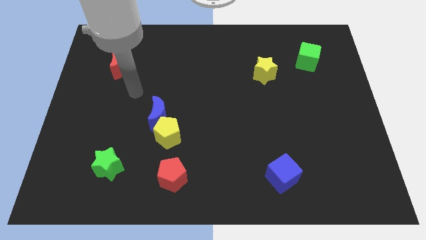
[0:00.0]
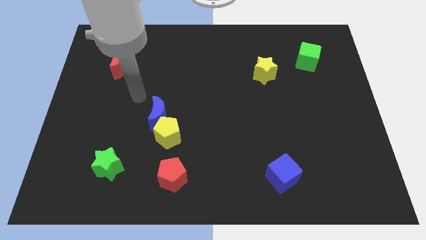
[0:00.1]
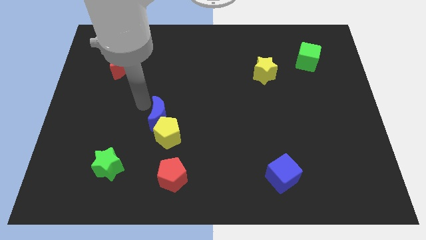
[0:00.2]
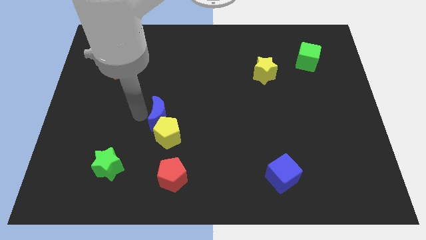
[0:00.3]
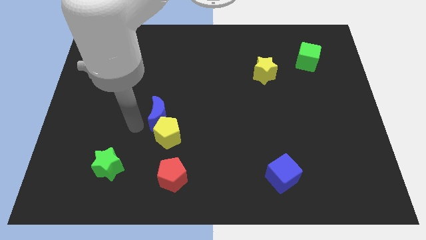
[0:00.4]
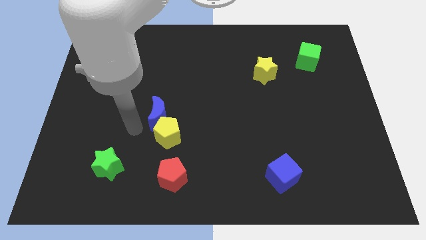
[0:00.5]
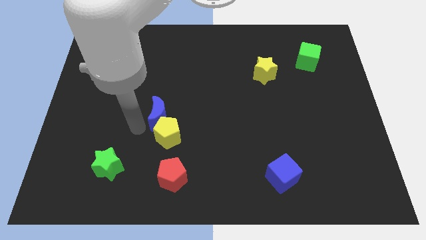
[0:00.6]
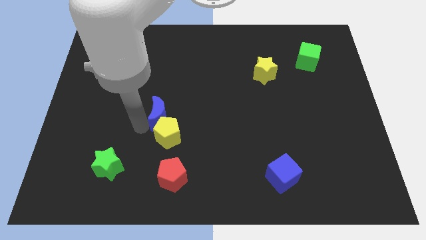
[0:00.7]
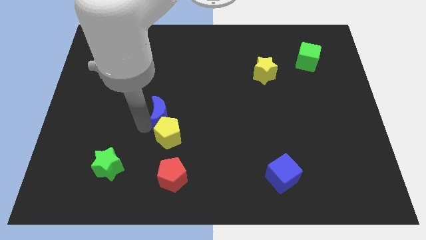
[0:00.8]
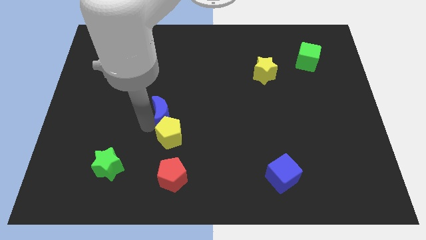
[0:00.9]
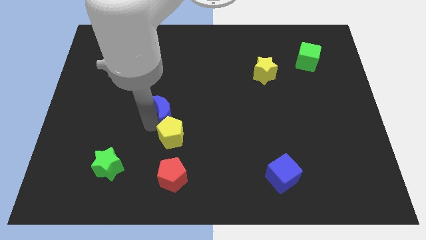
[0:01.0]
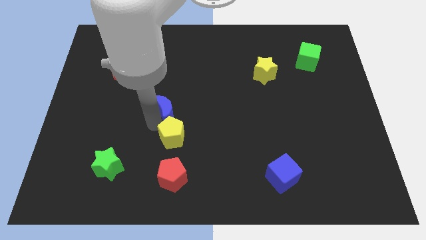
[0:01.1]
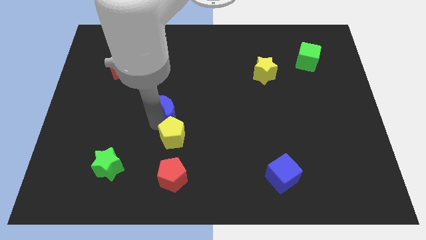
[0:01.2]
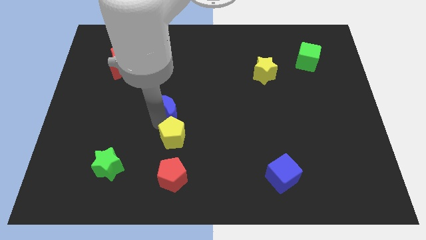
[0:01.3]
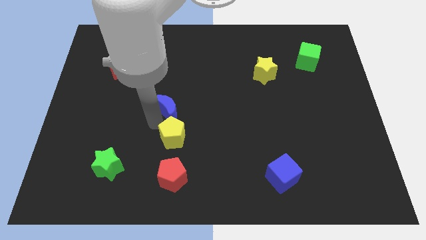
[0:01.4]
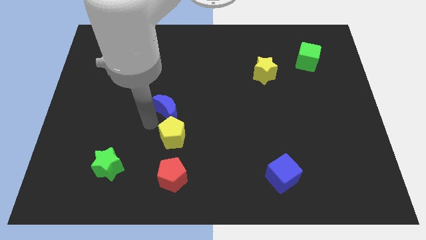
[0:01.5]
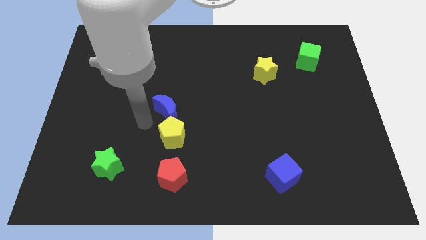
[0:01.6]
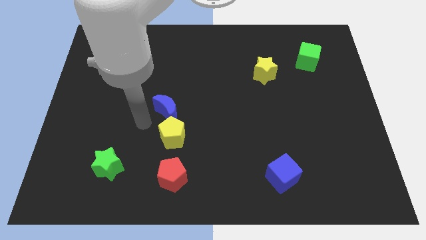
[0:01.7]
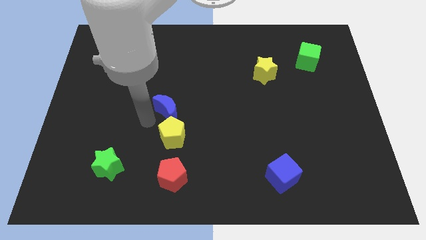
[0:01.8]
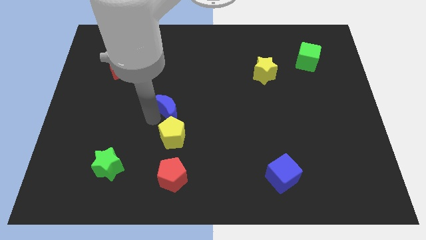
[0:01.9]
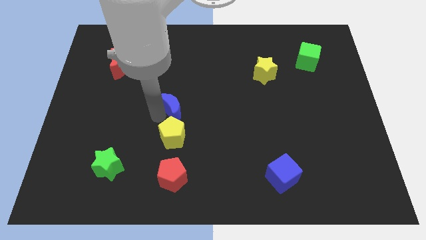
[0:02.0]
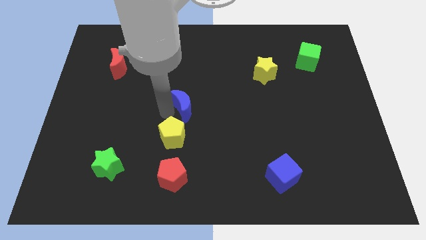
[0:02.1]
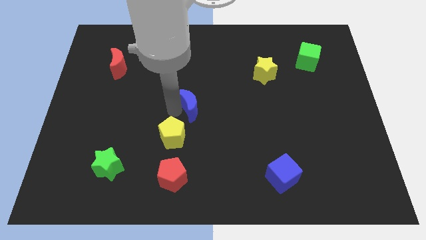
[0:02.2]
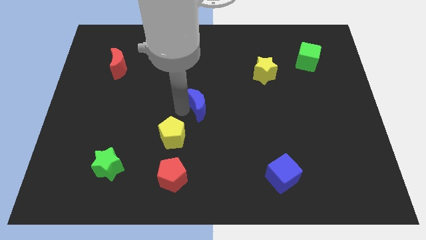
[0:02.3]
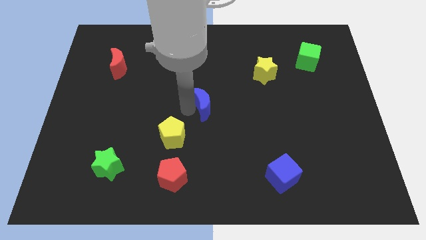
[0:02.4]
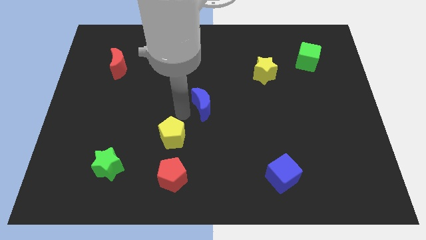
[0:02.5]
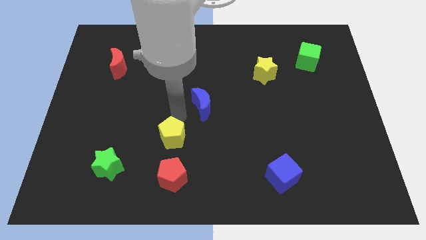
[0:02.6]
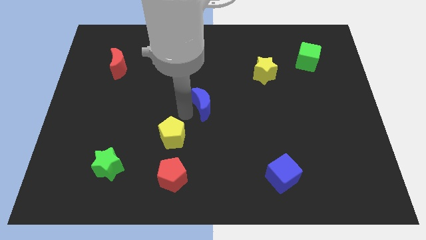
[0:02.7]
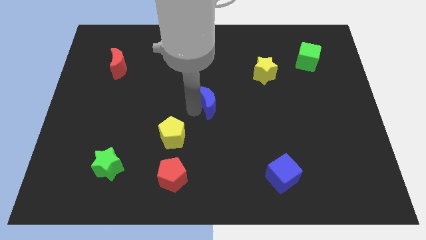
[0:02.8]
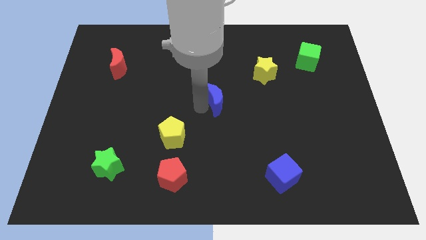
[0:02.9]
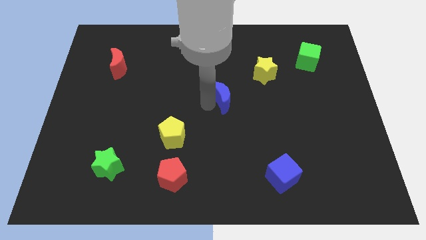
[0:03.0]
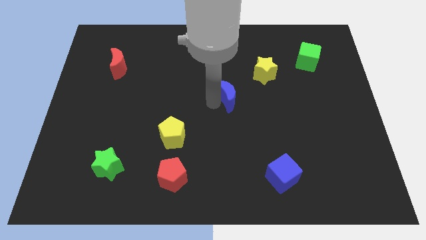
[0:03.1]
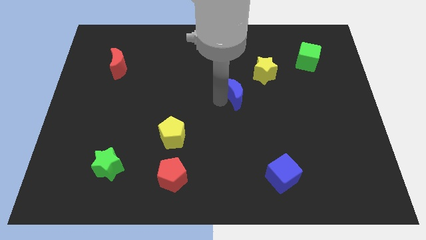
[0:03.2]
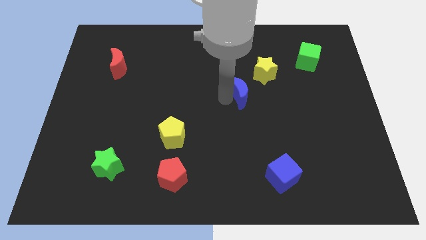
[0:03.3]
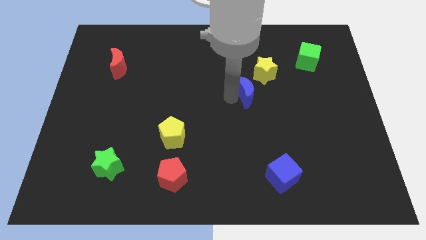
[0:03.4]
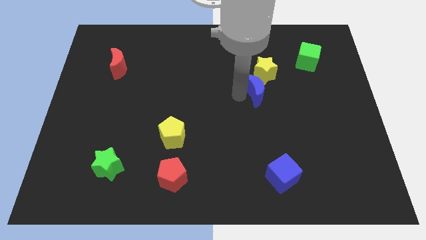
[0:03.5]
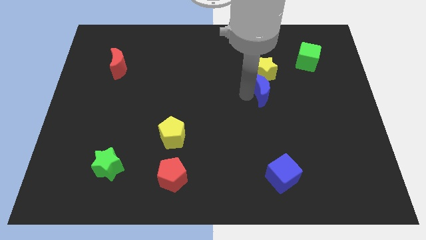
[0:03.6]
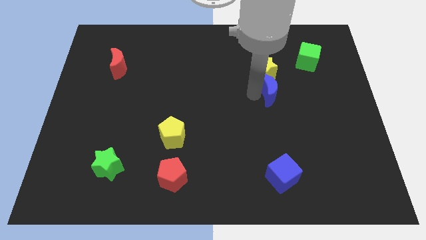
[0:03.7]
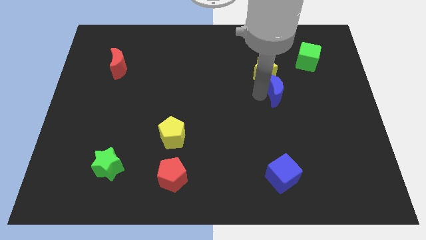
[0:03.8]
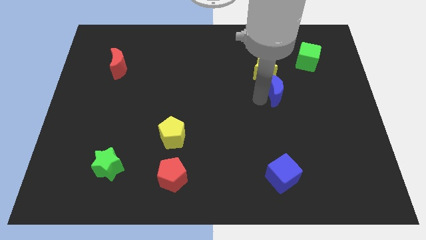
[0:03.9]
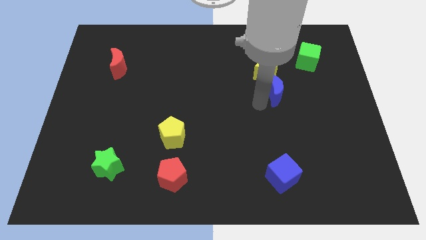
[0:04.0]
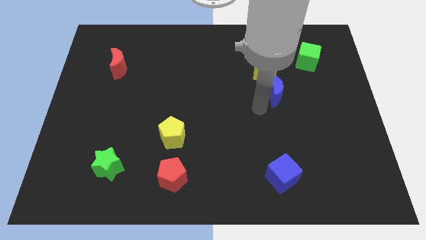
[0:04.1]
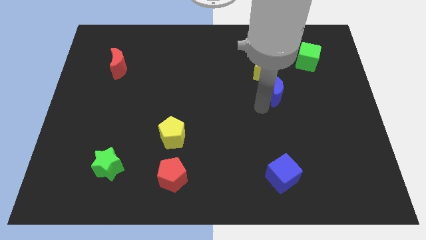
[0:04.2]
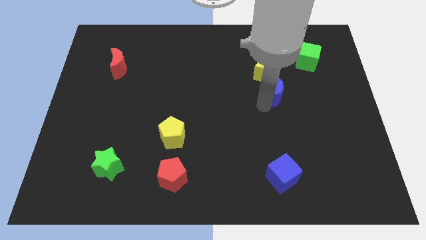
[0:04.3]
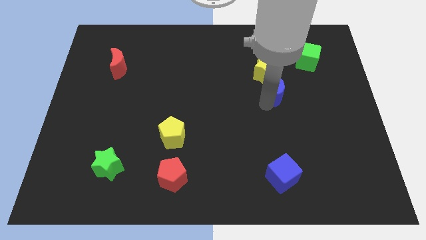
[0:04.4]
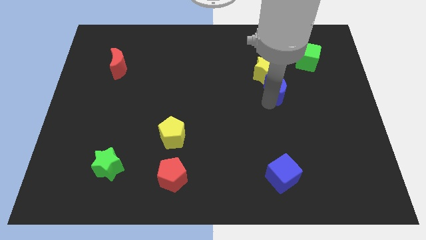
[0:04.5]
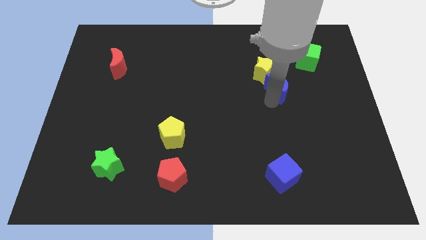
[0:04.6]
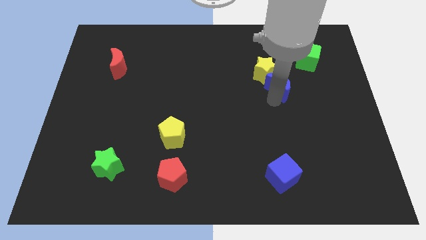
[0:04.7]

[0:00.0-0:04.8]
move the blue moon diagonally down and to the left of the green cube

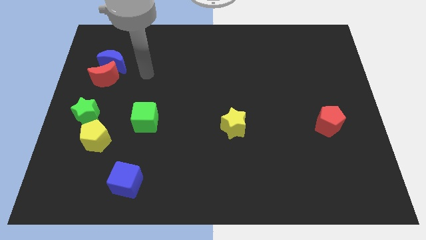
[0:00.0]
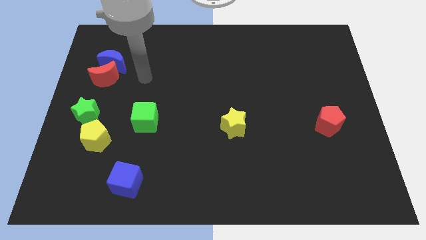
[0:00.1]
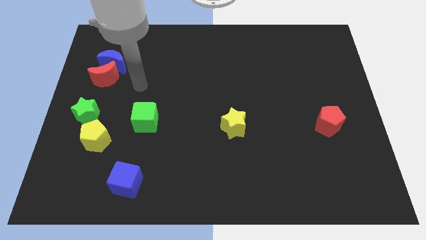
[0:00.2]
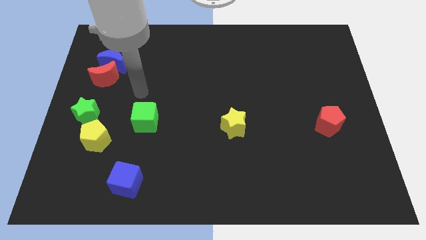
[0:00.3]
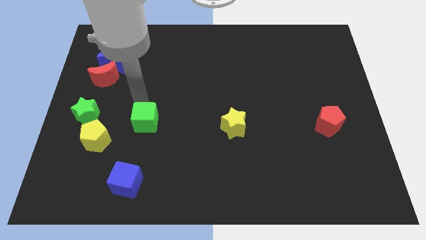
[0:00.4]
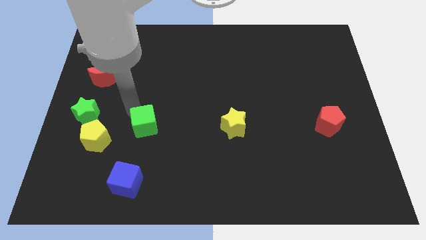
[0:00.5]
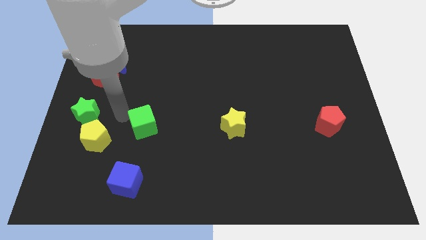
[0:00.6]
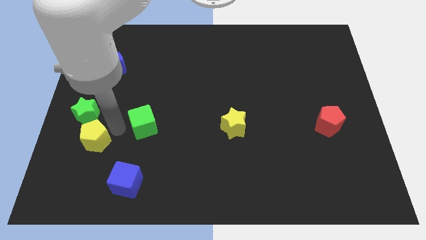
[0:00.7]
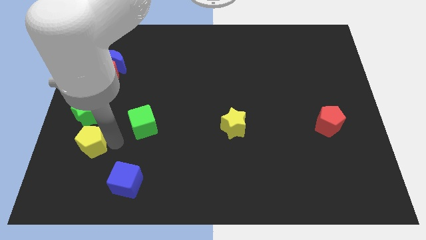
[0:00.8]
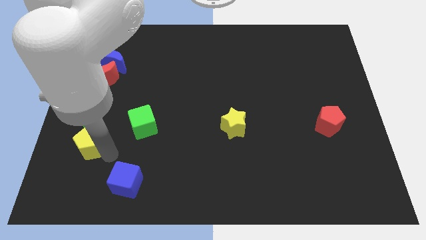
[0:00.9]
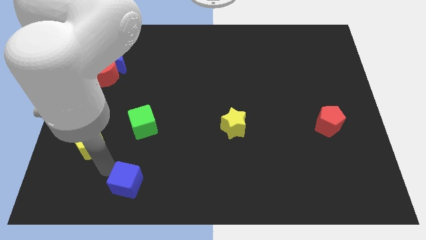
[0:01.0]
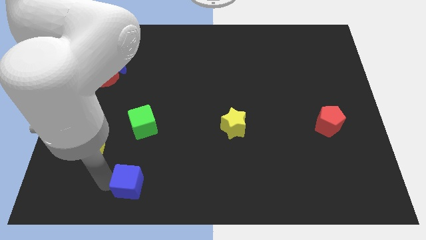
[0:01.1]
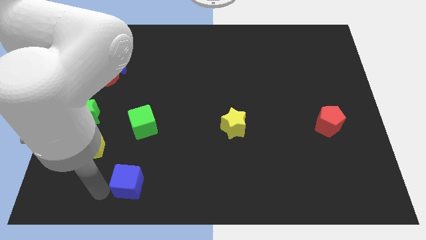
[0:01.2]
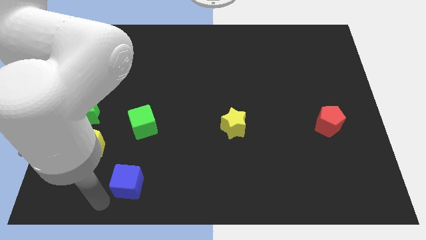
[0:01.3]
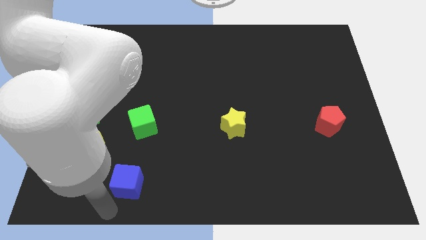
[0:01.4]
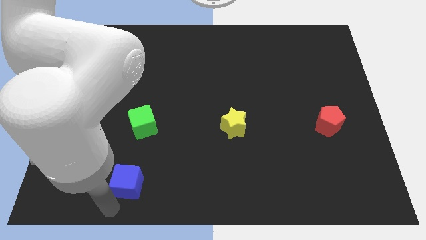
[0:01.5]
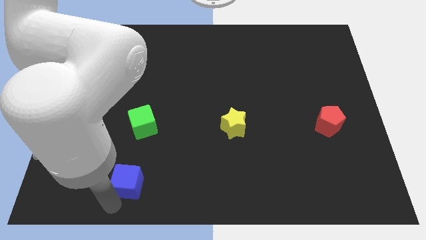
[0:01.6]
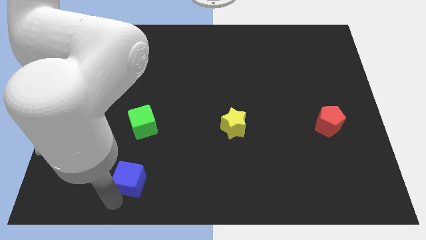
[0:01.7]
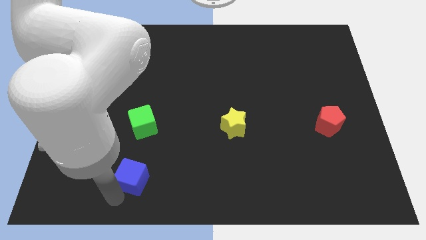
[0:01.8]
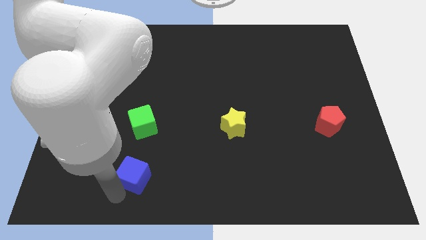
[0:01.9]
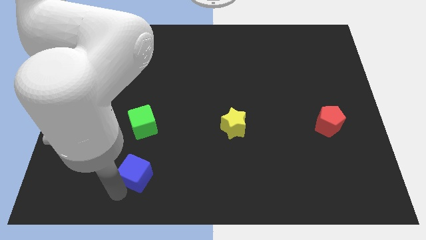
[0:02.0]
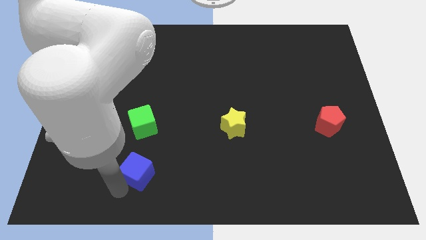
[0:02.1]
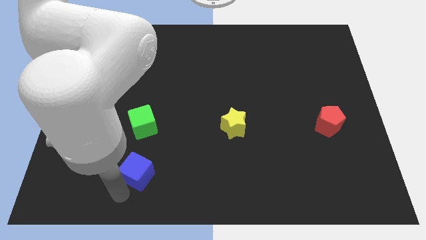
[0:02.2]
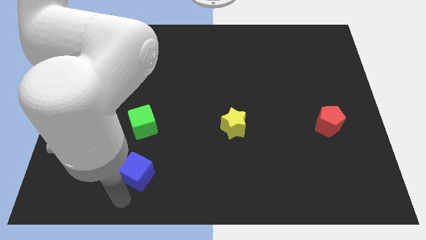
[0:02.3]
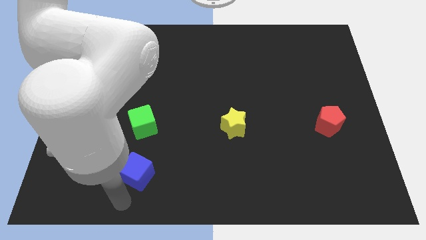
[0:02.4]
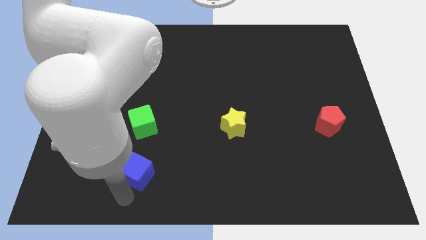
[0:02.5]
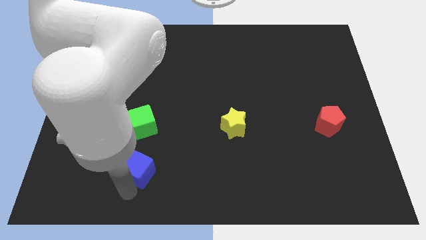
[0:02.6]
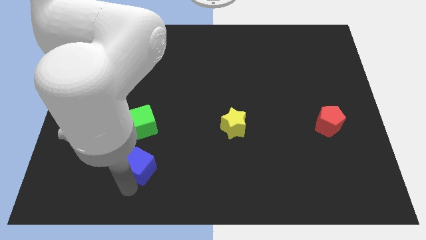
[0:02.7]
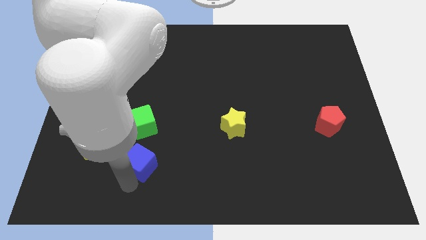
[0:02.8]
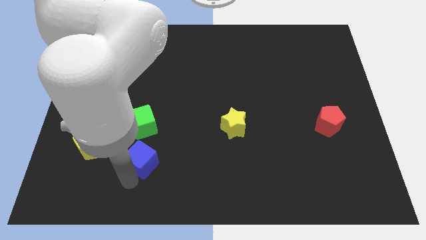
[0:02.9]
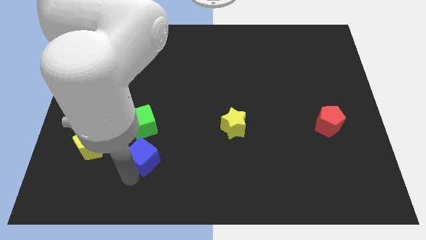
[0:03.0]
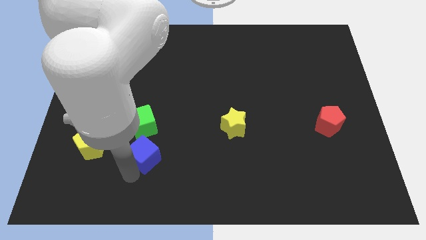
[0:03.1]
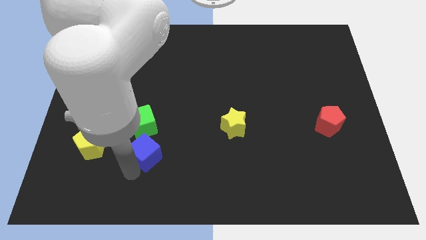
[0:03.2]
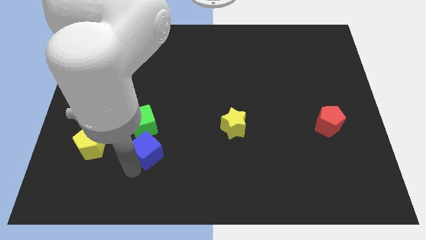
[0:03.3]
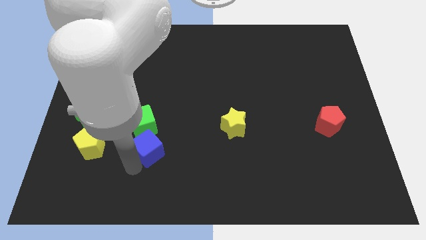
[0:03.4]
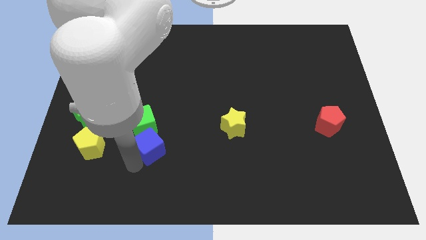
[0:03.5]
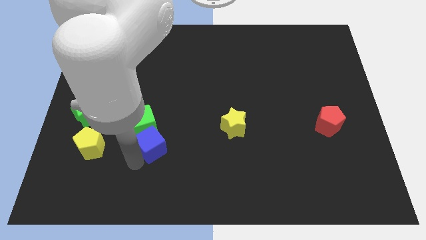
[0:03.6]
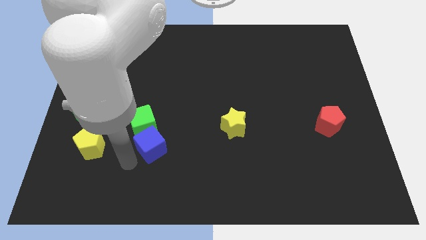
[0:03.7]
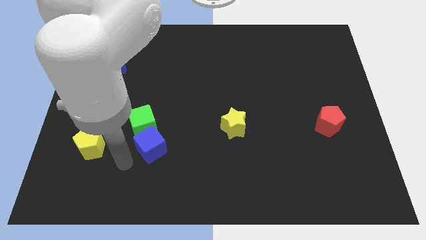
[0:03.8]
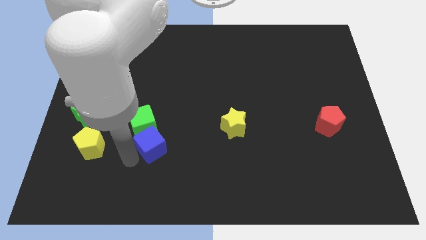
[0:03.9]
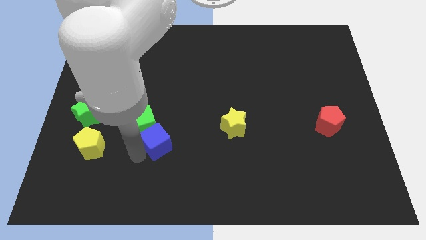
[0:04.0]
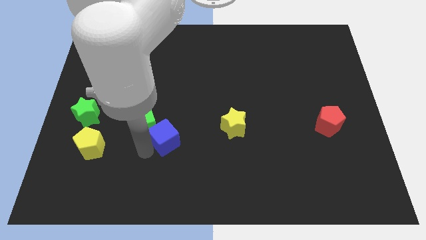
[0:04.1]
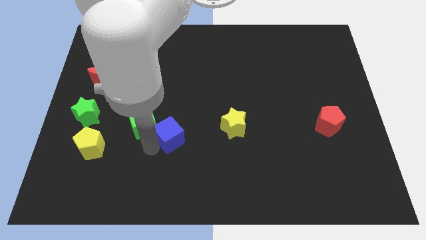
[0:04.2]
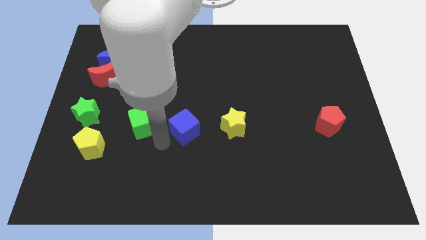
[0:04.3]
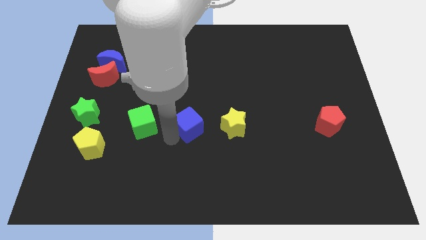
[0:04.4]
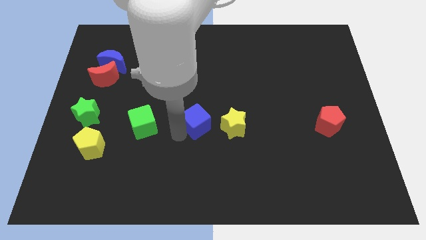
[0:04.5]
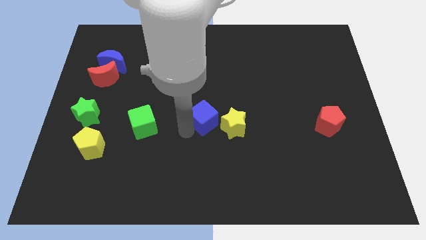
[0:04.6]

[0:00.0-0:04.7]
slide the blue cube diagonally up and to the left of the yellow star
